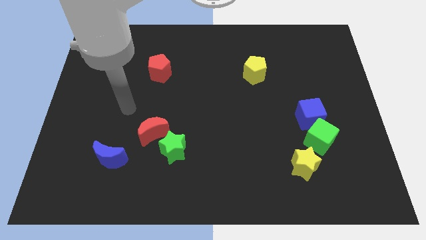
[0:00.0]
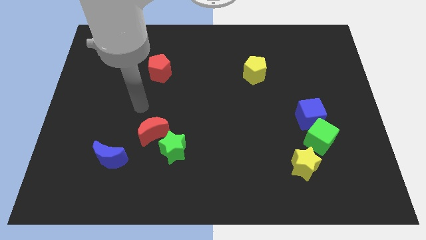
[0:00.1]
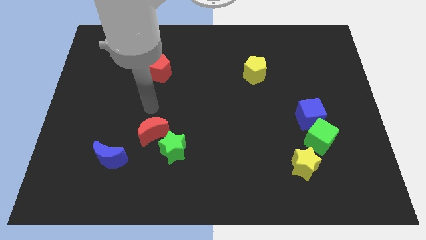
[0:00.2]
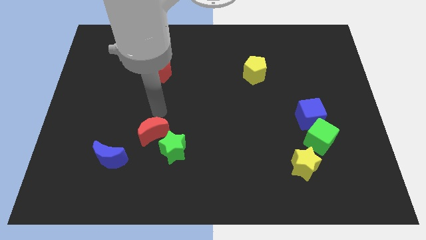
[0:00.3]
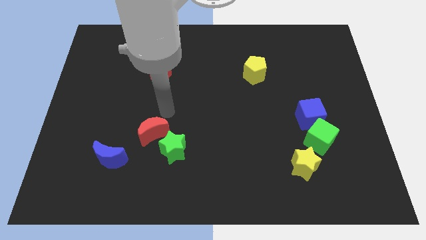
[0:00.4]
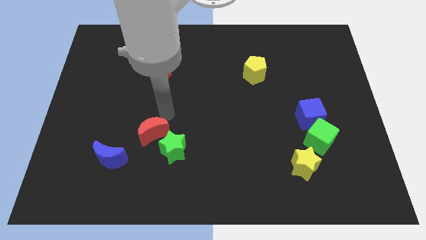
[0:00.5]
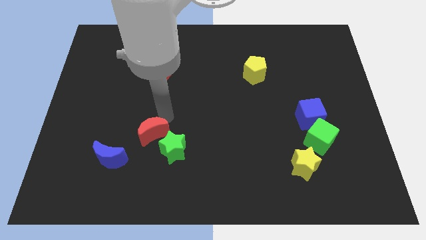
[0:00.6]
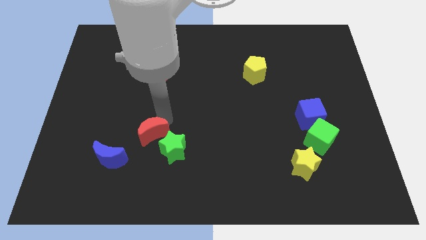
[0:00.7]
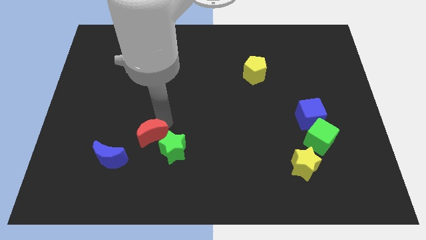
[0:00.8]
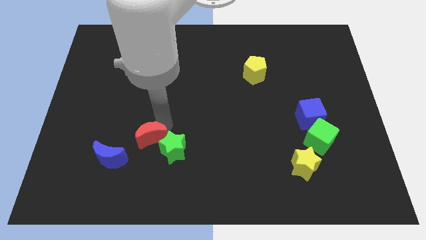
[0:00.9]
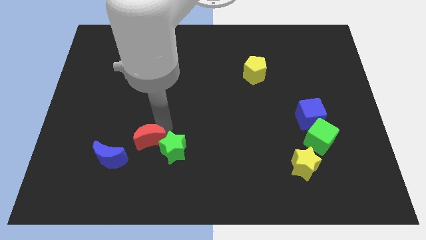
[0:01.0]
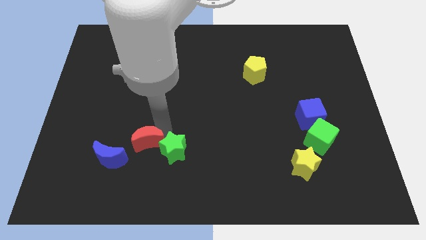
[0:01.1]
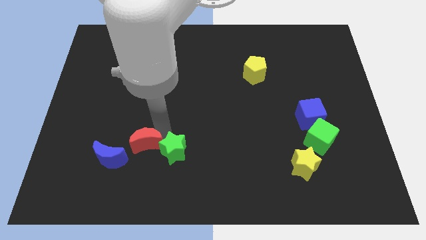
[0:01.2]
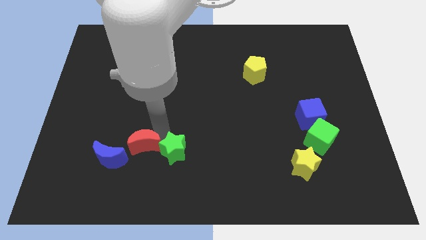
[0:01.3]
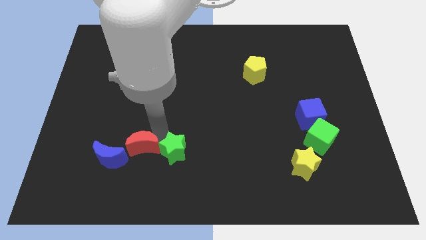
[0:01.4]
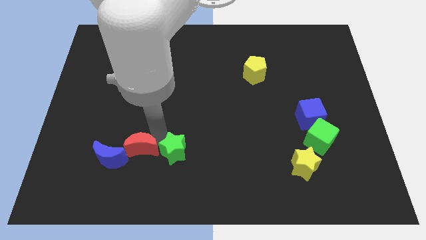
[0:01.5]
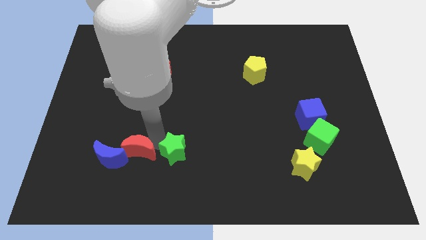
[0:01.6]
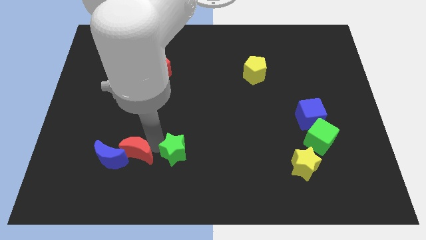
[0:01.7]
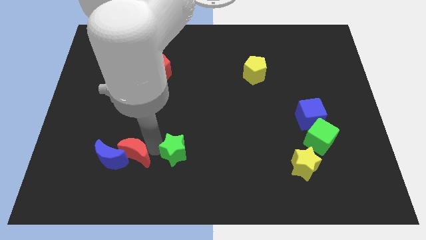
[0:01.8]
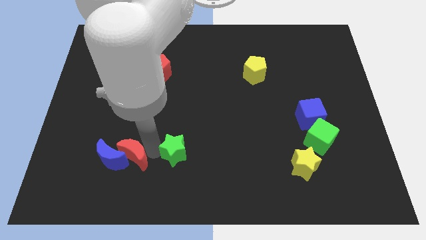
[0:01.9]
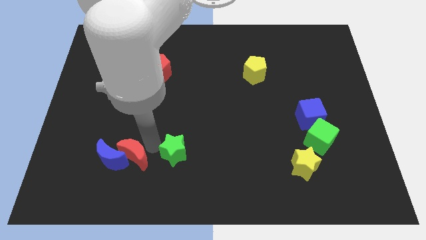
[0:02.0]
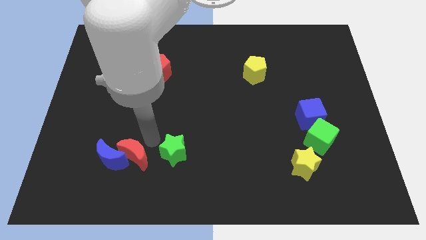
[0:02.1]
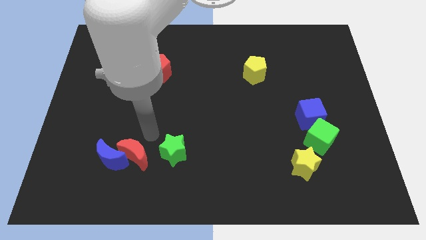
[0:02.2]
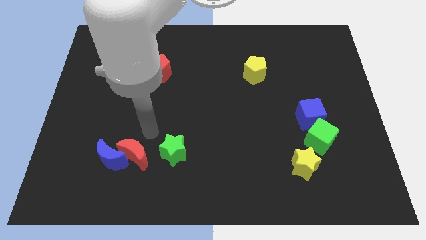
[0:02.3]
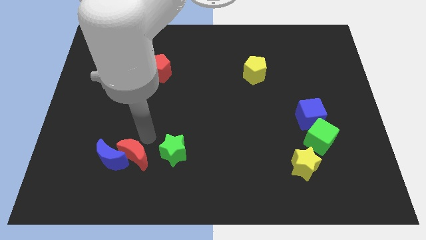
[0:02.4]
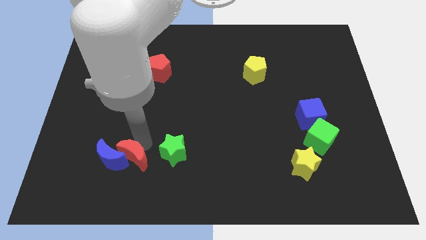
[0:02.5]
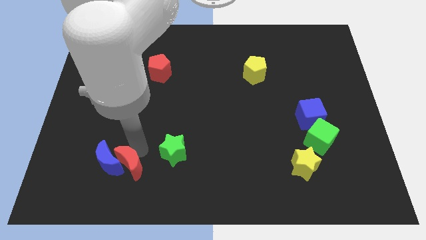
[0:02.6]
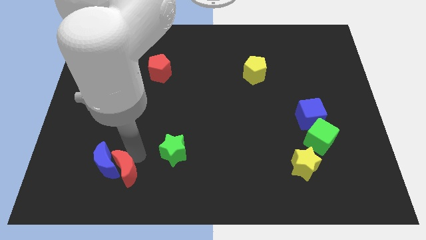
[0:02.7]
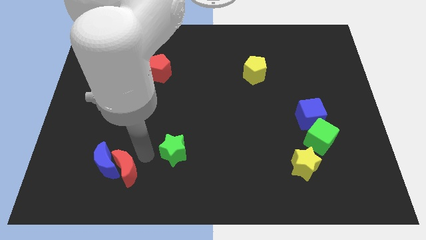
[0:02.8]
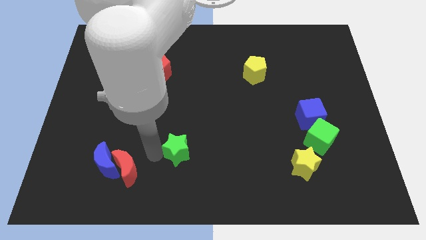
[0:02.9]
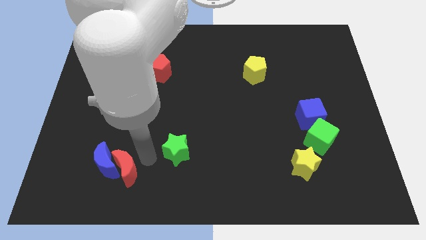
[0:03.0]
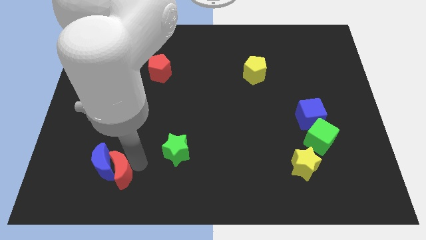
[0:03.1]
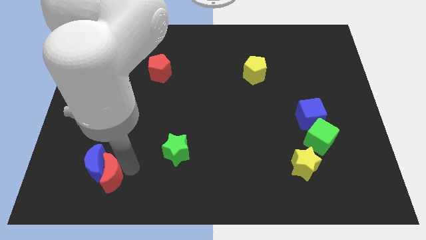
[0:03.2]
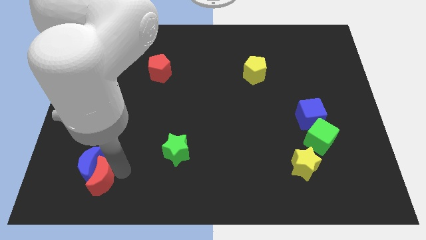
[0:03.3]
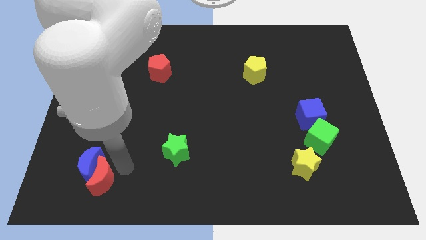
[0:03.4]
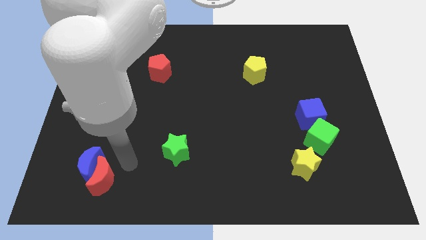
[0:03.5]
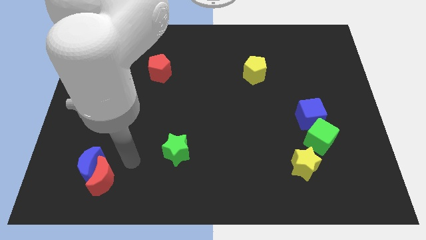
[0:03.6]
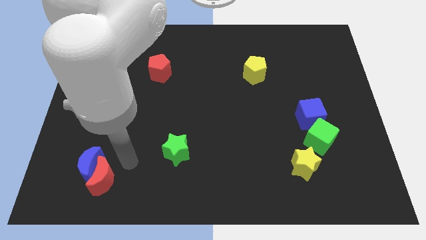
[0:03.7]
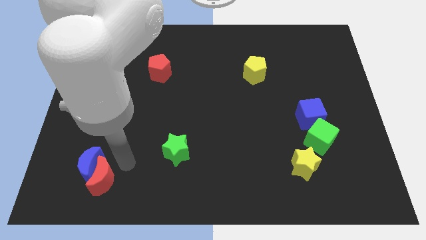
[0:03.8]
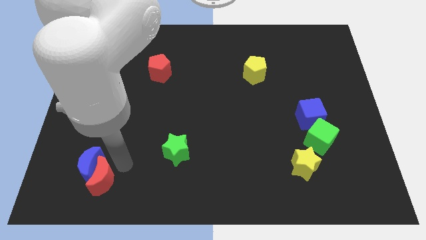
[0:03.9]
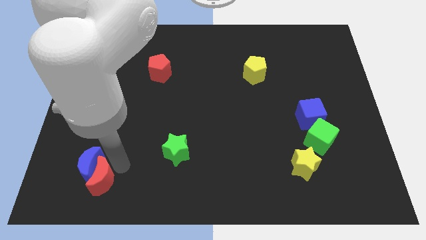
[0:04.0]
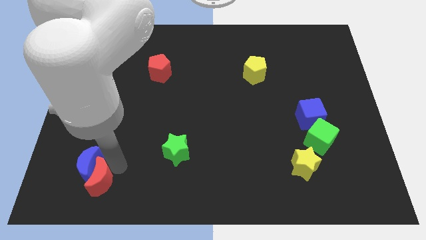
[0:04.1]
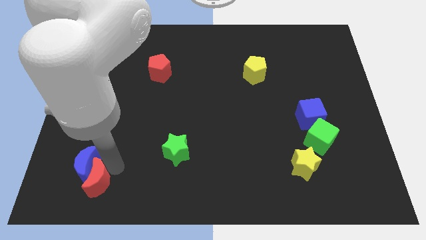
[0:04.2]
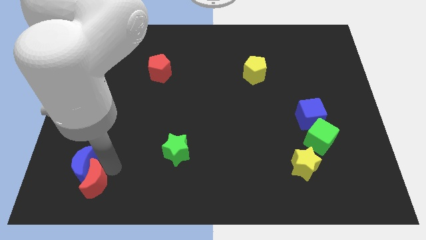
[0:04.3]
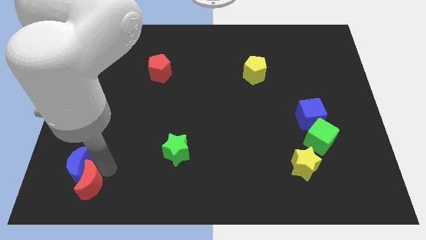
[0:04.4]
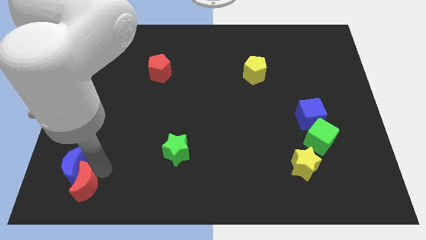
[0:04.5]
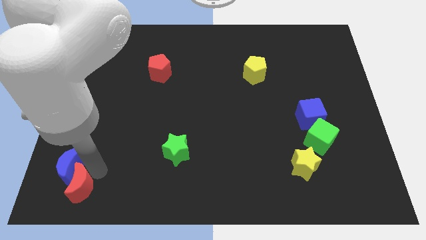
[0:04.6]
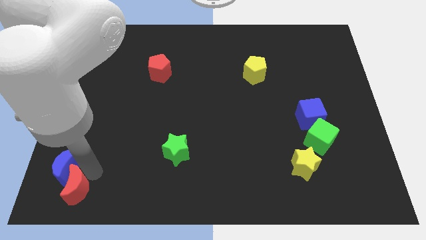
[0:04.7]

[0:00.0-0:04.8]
put the red moon to the bottom left of the board

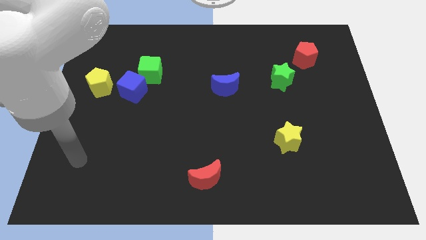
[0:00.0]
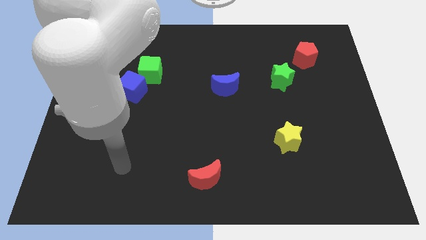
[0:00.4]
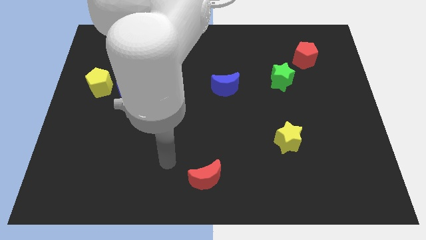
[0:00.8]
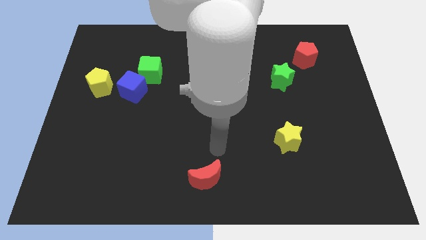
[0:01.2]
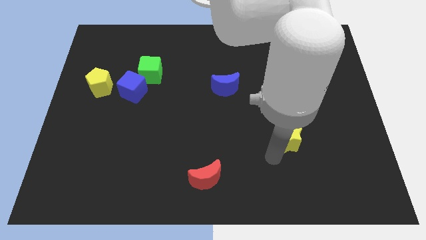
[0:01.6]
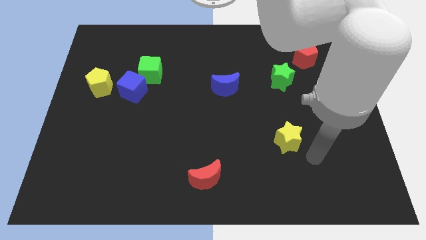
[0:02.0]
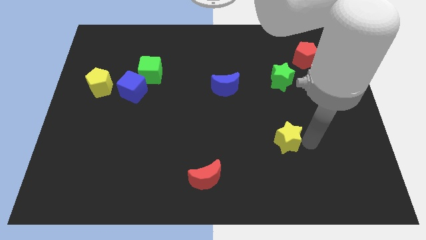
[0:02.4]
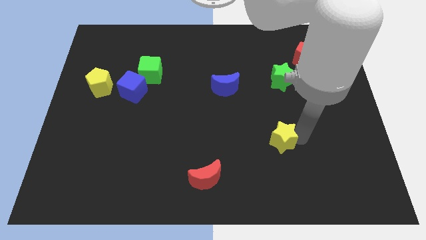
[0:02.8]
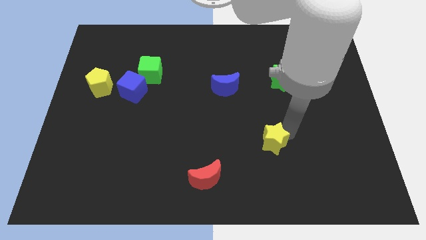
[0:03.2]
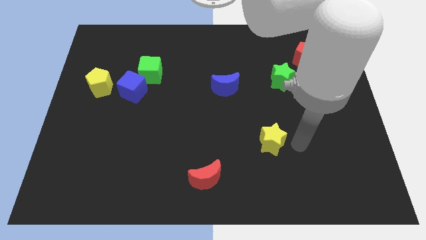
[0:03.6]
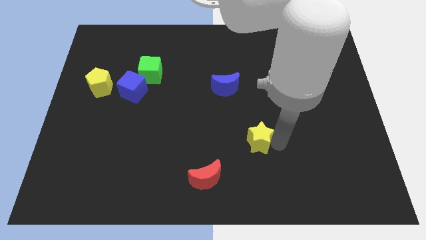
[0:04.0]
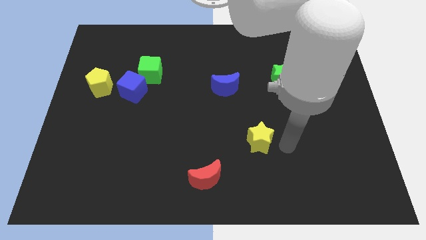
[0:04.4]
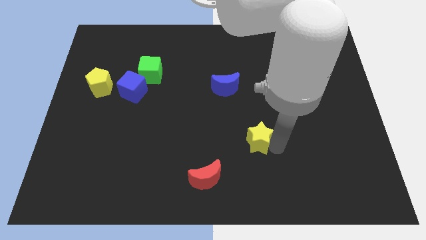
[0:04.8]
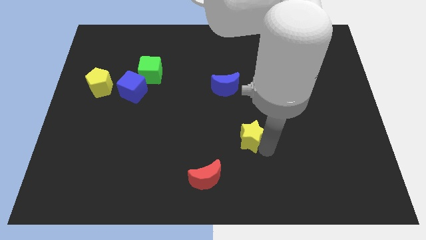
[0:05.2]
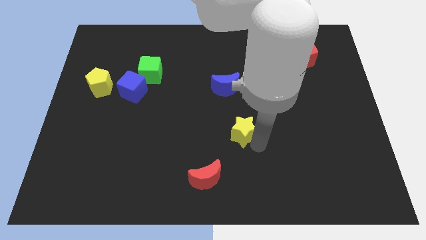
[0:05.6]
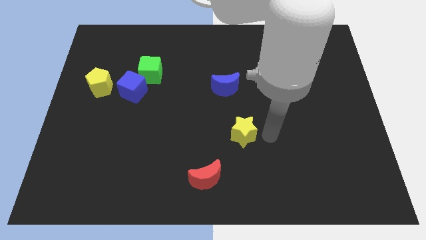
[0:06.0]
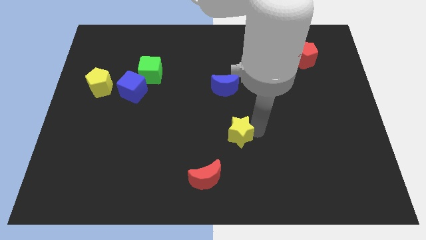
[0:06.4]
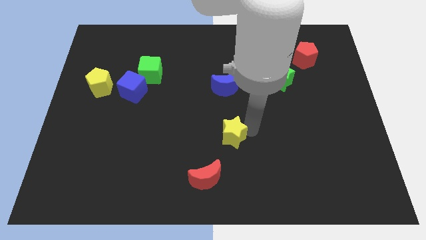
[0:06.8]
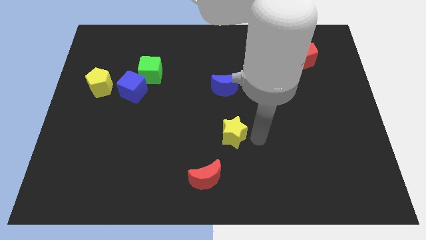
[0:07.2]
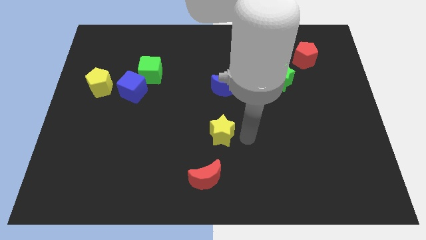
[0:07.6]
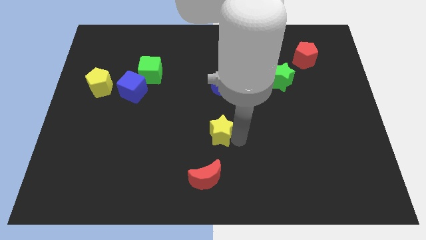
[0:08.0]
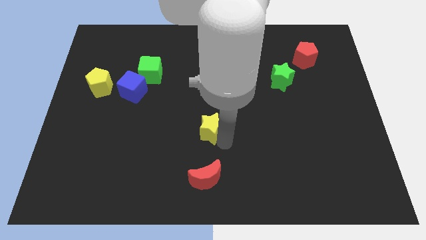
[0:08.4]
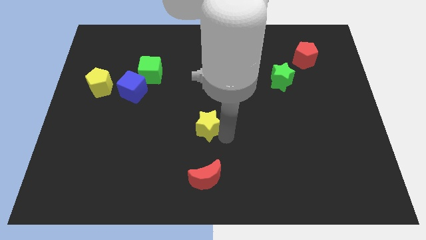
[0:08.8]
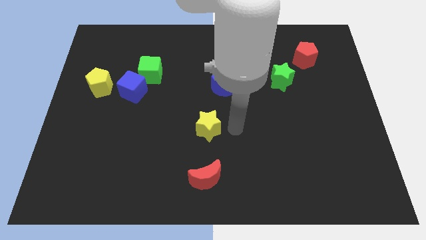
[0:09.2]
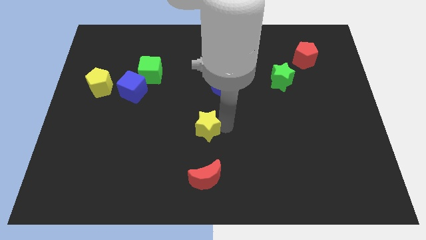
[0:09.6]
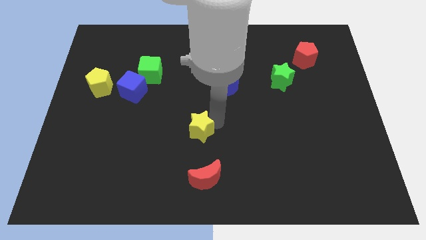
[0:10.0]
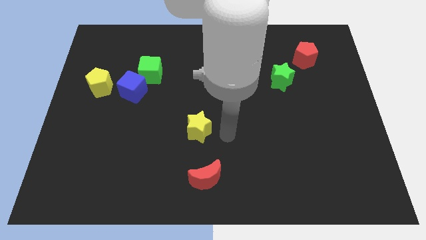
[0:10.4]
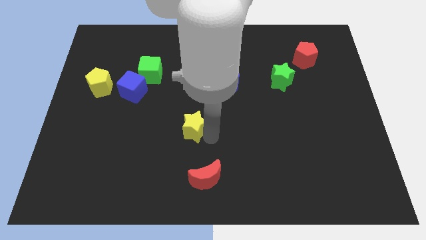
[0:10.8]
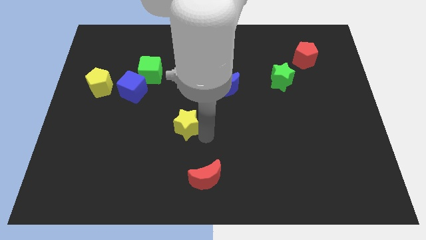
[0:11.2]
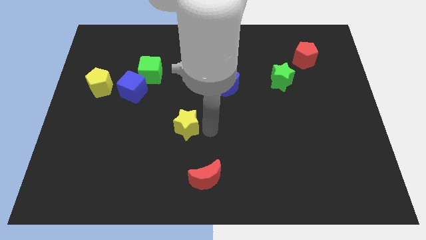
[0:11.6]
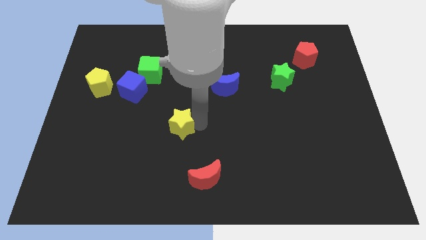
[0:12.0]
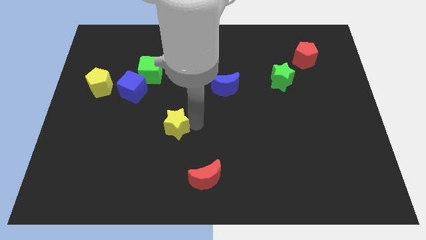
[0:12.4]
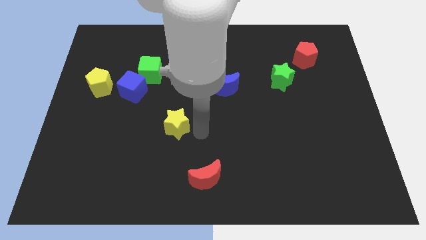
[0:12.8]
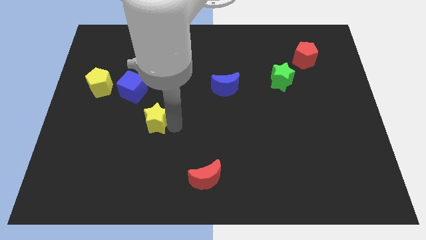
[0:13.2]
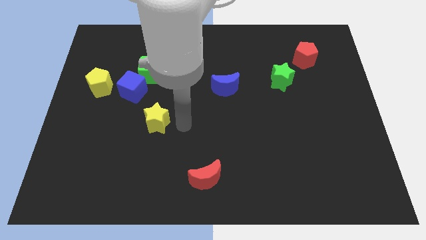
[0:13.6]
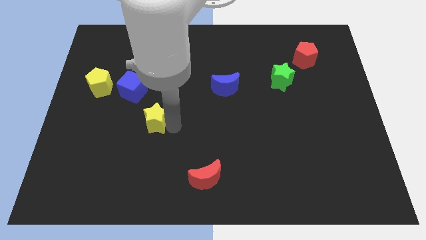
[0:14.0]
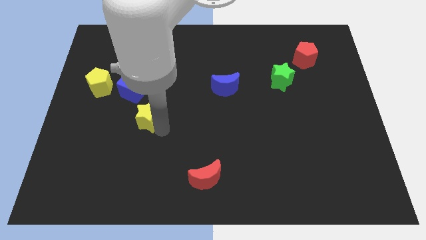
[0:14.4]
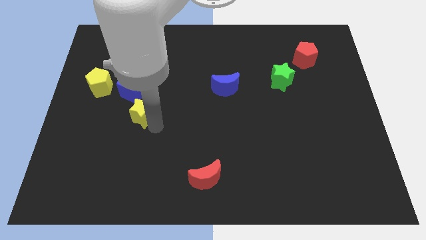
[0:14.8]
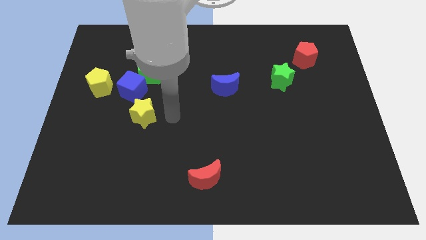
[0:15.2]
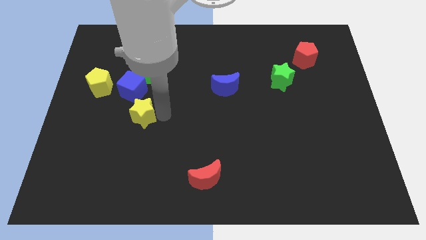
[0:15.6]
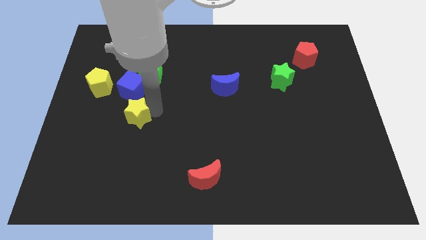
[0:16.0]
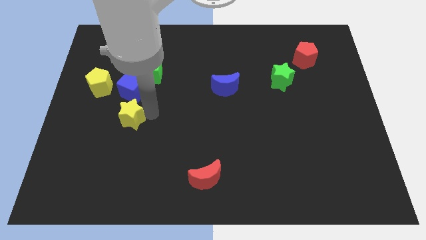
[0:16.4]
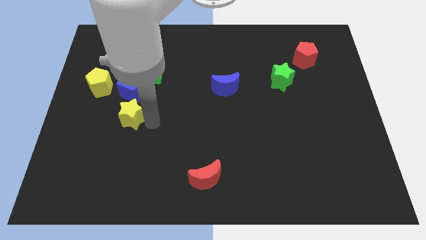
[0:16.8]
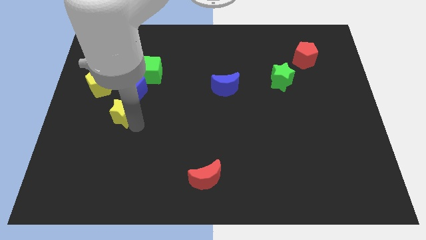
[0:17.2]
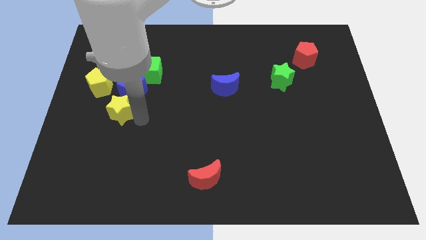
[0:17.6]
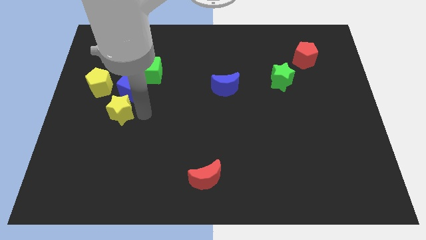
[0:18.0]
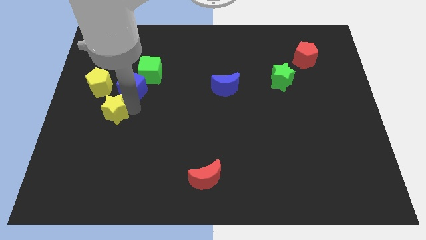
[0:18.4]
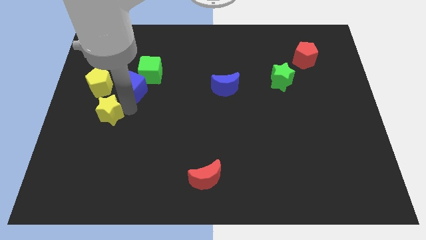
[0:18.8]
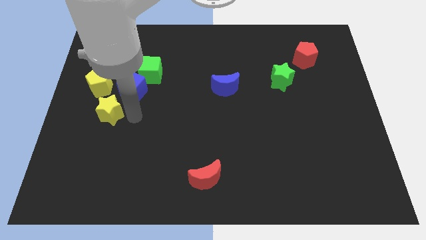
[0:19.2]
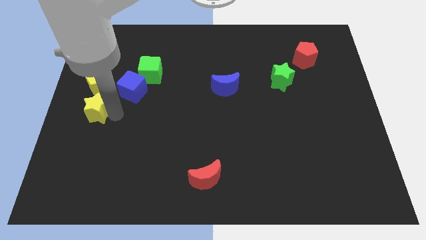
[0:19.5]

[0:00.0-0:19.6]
move the yellow star to the center left
